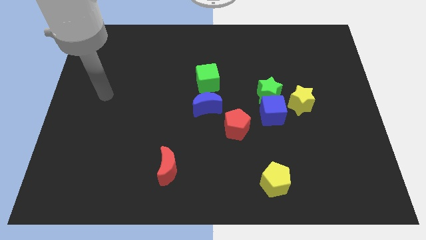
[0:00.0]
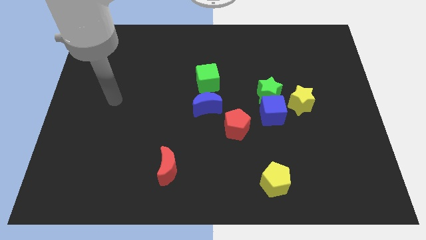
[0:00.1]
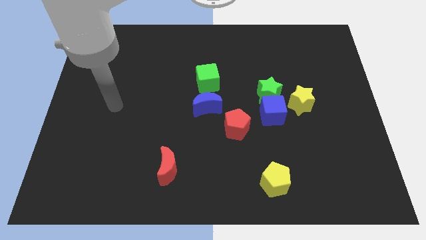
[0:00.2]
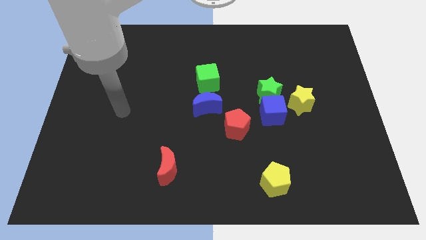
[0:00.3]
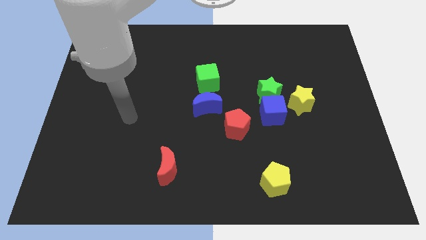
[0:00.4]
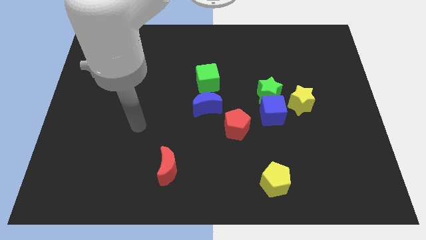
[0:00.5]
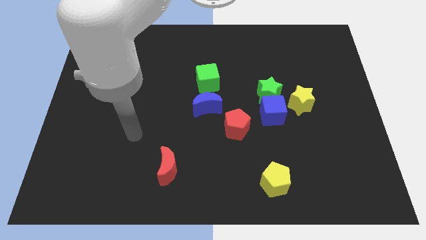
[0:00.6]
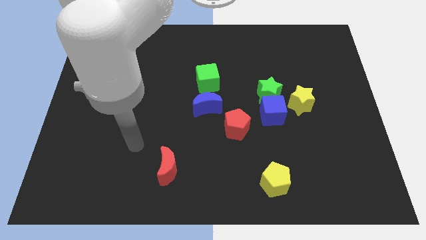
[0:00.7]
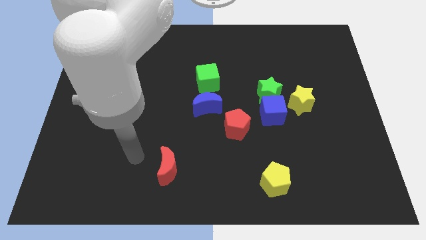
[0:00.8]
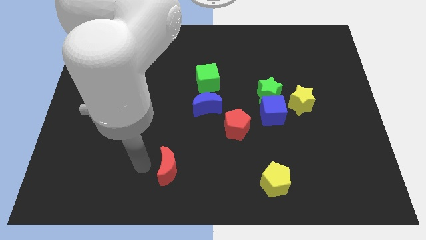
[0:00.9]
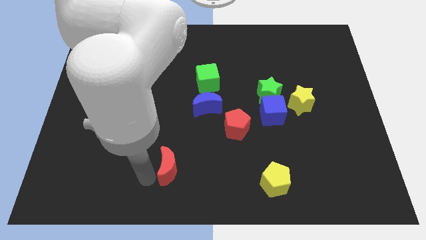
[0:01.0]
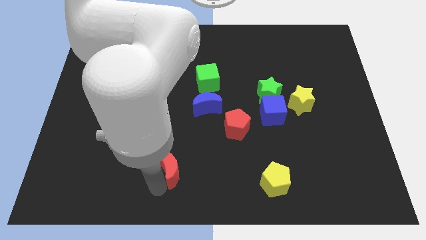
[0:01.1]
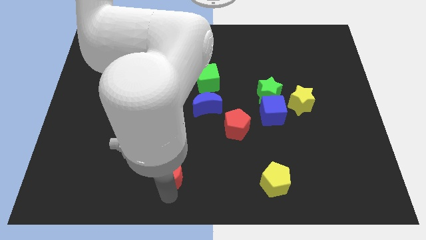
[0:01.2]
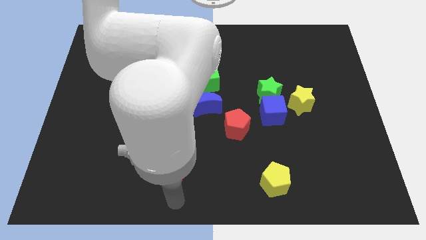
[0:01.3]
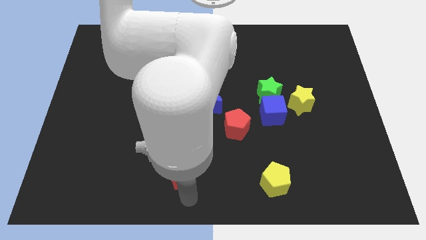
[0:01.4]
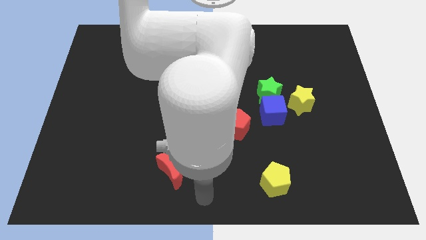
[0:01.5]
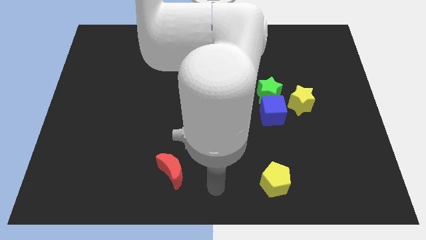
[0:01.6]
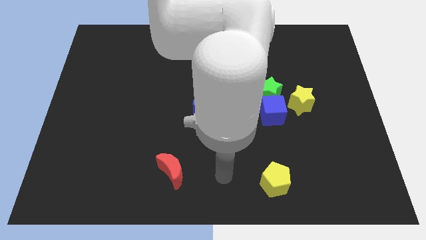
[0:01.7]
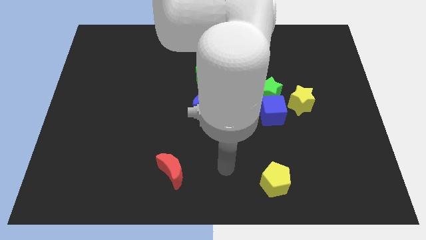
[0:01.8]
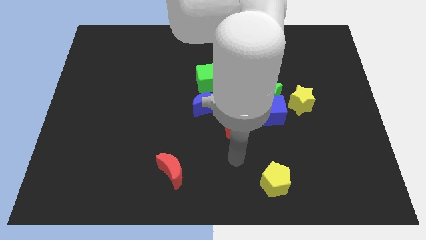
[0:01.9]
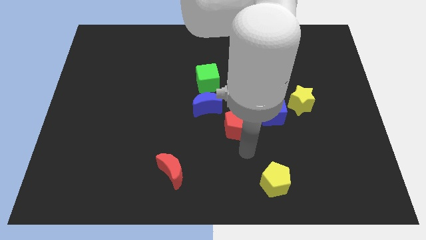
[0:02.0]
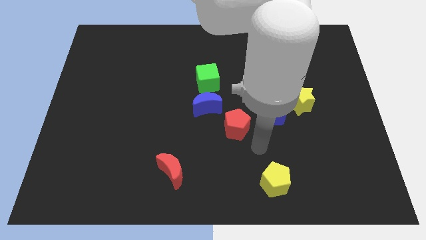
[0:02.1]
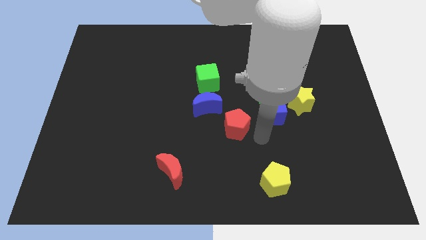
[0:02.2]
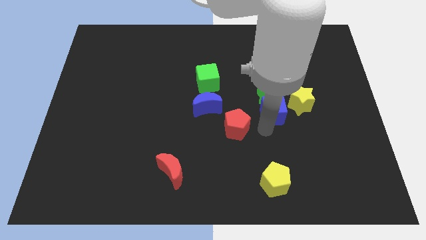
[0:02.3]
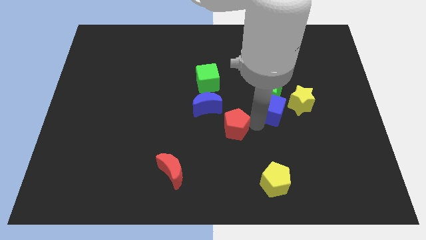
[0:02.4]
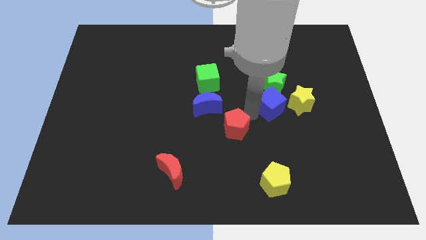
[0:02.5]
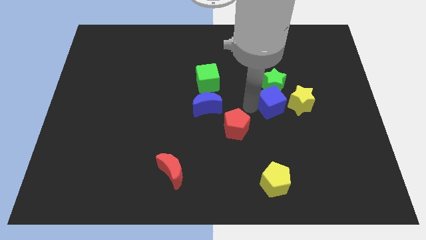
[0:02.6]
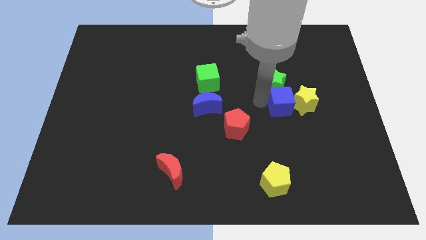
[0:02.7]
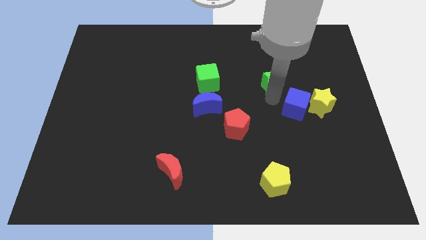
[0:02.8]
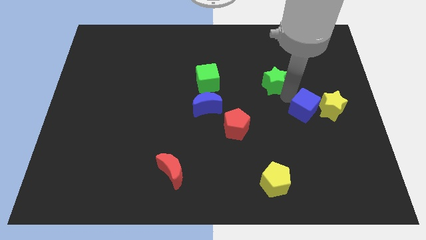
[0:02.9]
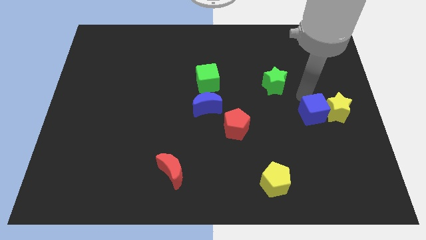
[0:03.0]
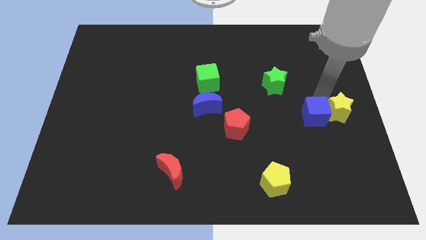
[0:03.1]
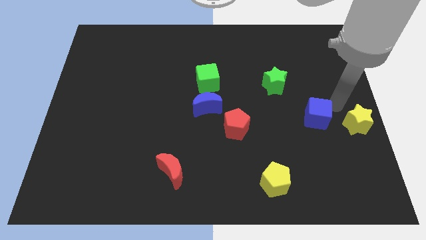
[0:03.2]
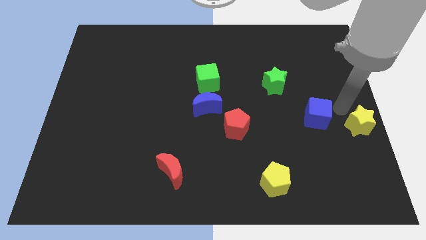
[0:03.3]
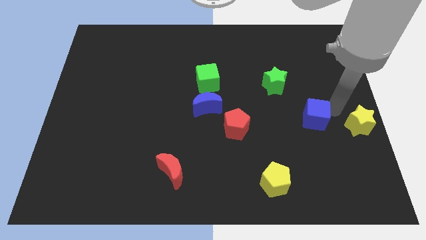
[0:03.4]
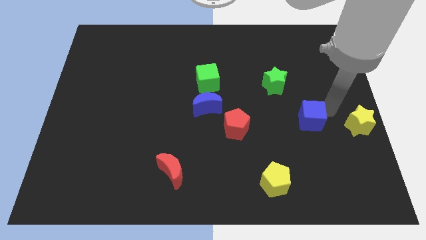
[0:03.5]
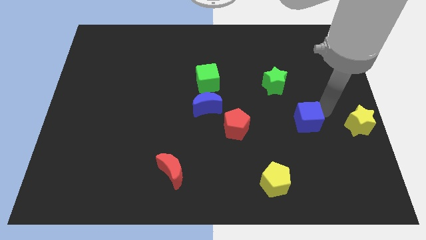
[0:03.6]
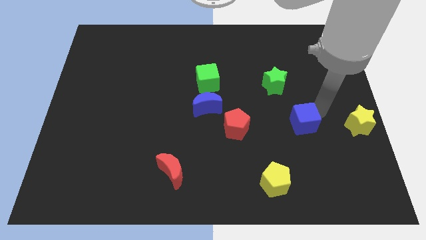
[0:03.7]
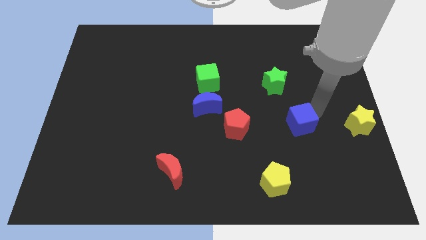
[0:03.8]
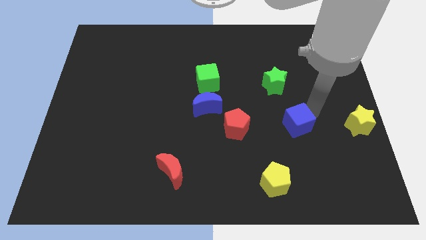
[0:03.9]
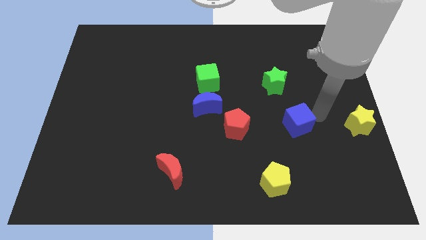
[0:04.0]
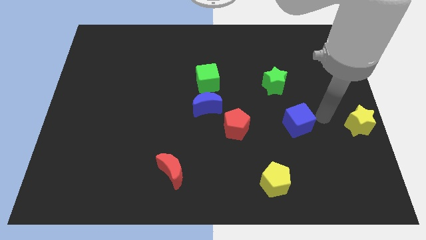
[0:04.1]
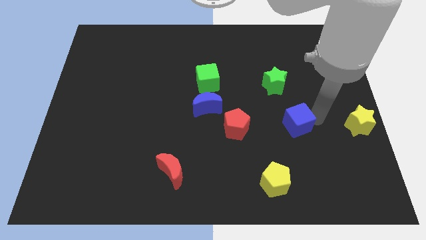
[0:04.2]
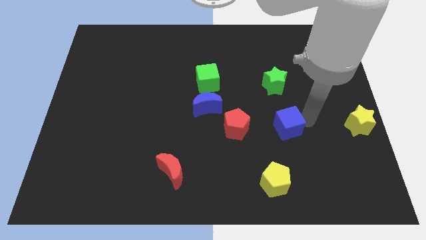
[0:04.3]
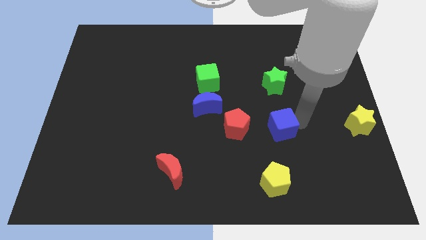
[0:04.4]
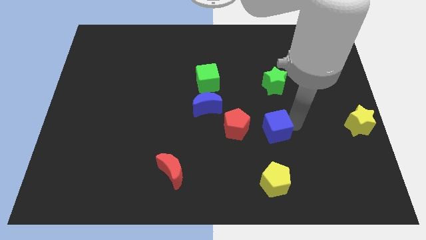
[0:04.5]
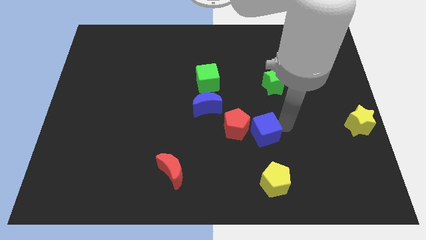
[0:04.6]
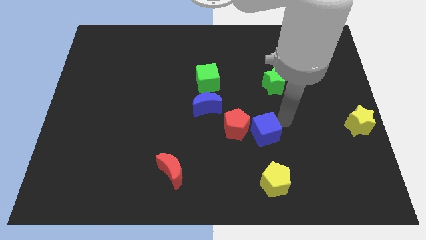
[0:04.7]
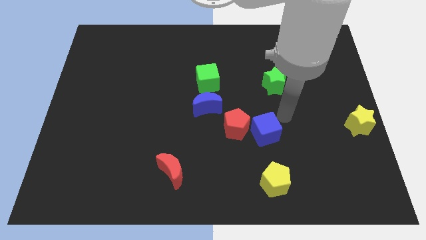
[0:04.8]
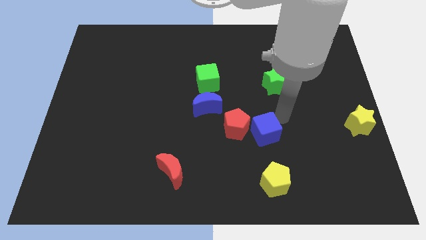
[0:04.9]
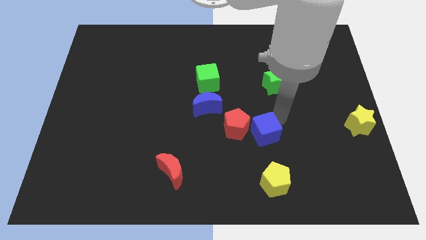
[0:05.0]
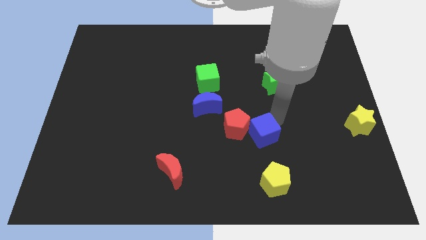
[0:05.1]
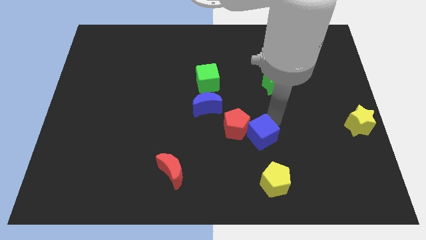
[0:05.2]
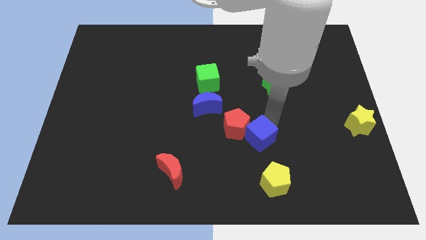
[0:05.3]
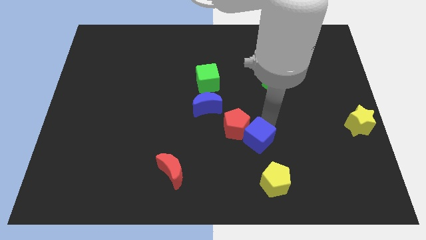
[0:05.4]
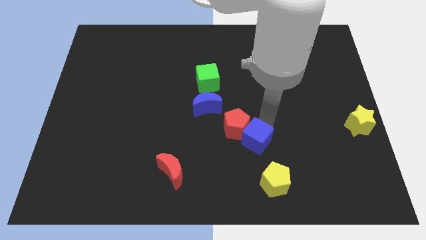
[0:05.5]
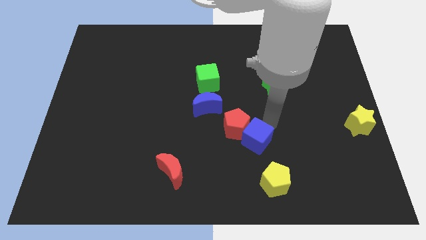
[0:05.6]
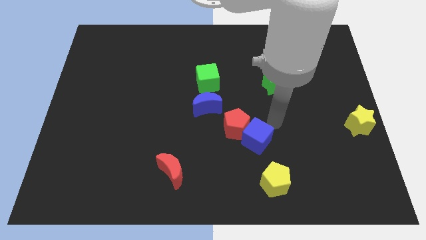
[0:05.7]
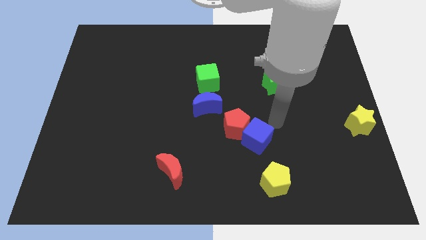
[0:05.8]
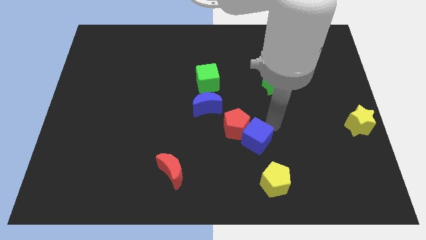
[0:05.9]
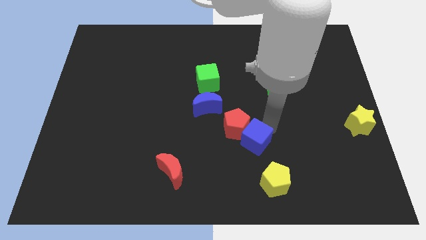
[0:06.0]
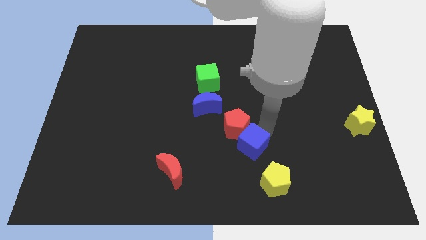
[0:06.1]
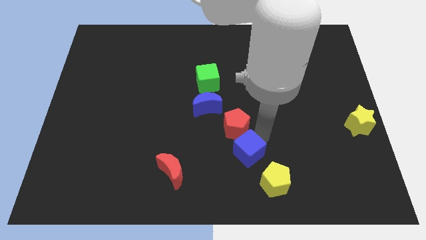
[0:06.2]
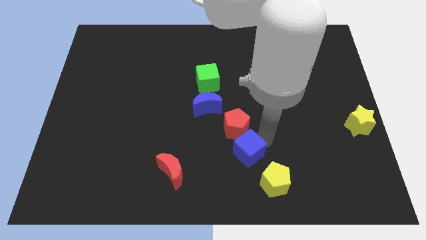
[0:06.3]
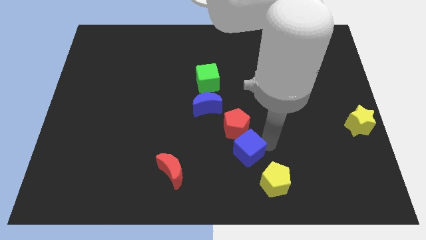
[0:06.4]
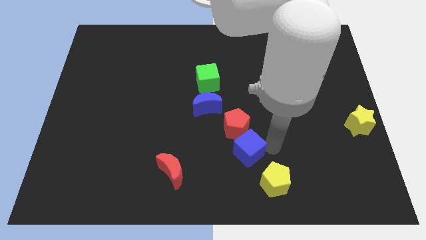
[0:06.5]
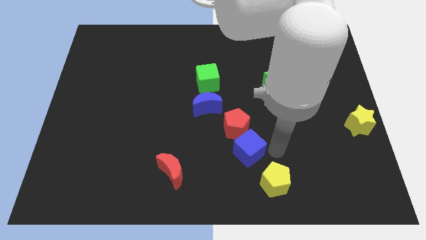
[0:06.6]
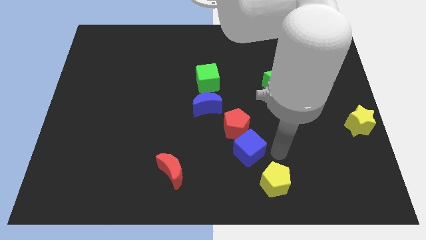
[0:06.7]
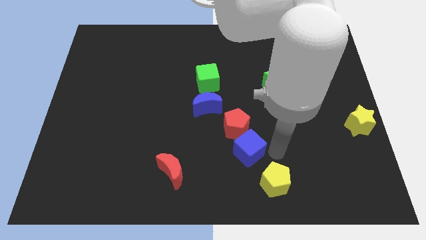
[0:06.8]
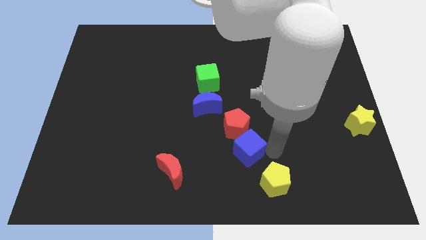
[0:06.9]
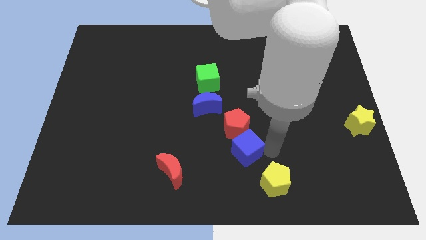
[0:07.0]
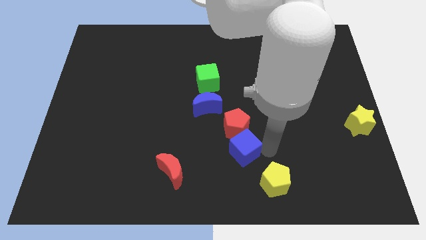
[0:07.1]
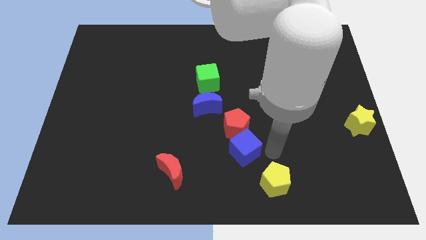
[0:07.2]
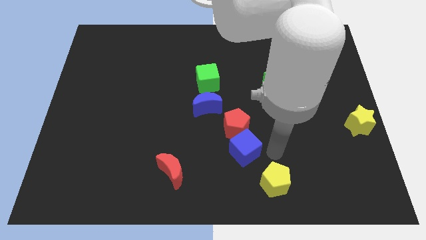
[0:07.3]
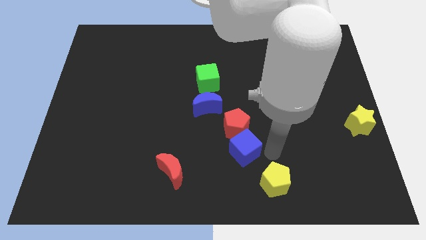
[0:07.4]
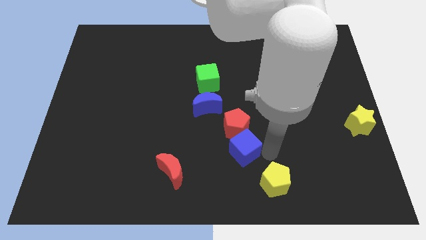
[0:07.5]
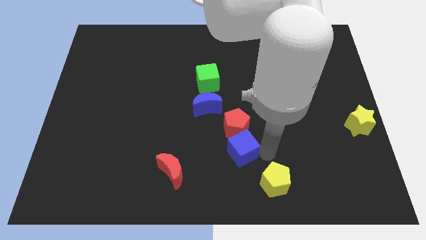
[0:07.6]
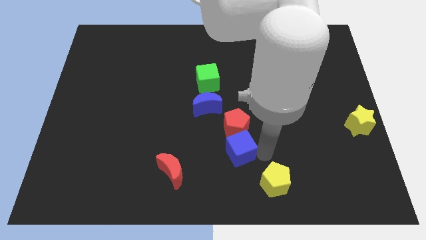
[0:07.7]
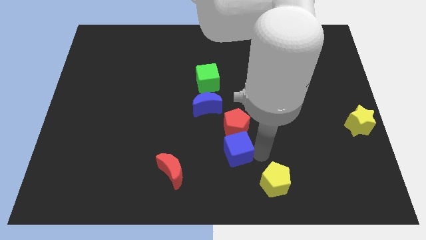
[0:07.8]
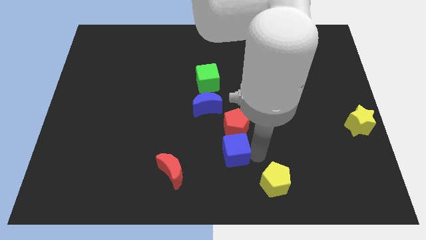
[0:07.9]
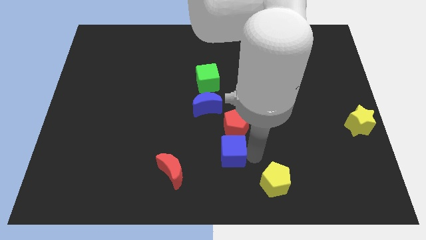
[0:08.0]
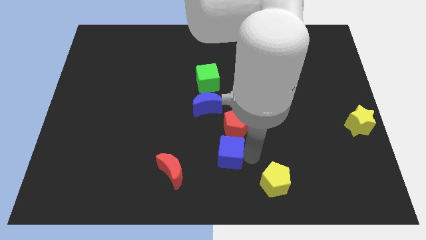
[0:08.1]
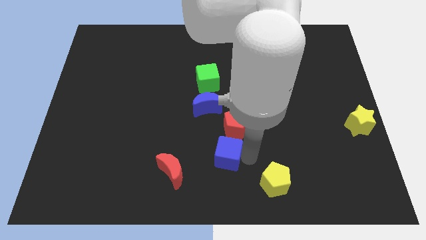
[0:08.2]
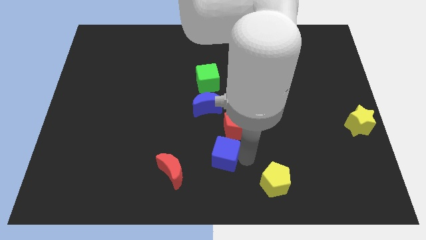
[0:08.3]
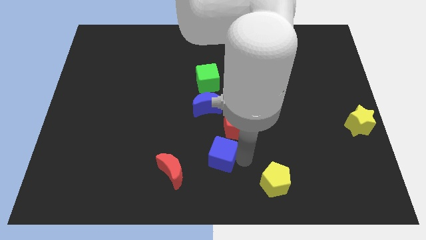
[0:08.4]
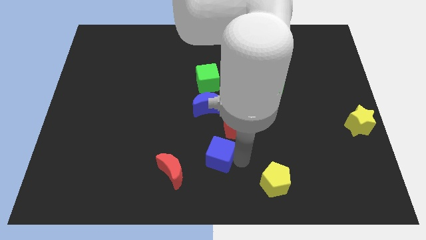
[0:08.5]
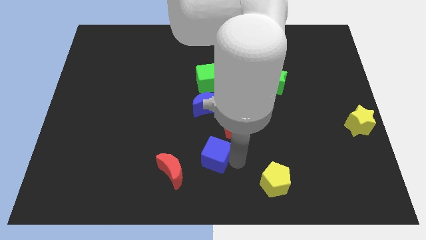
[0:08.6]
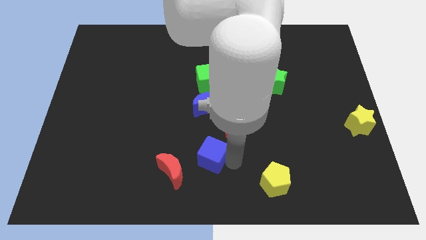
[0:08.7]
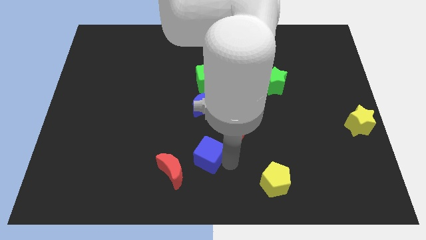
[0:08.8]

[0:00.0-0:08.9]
push the blue cube a little bit to the left
